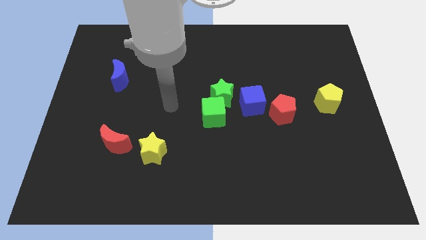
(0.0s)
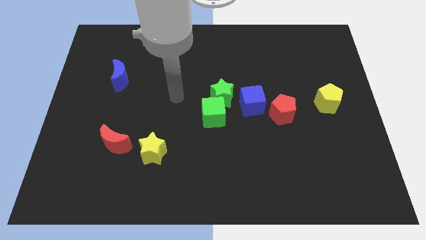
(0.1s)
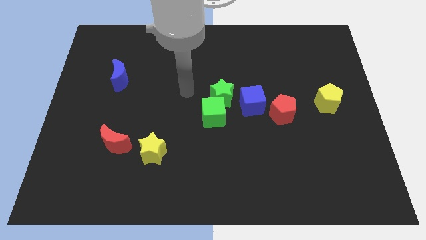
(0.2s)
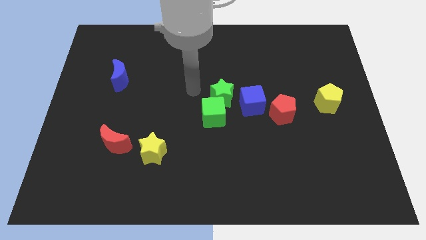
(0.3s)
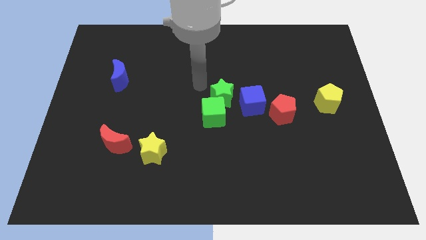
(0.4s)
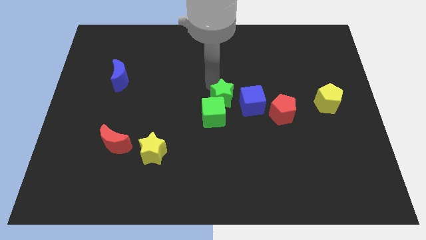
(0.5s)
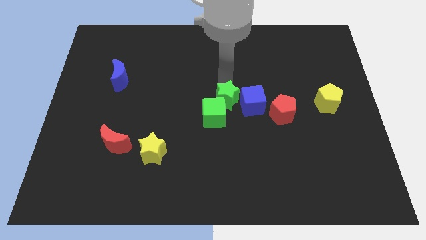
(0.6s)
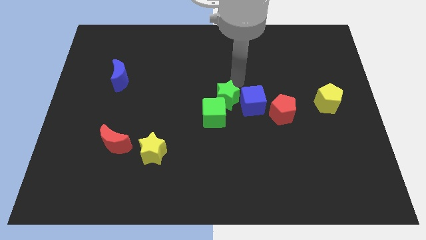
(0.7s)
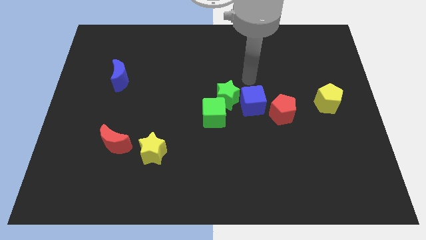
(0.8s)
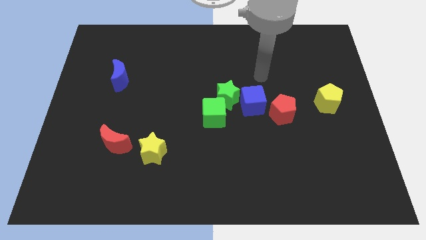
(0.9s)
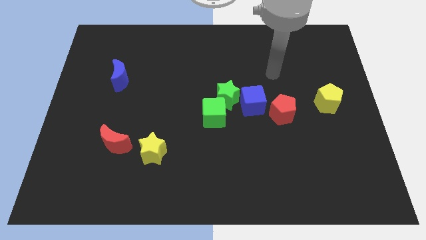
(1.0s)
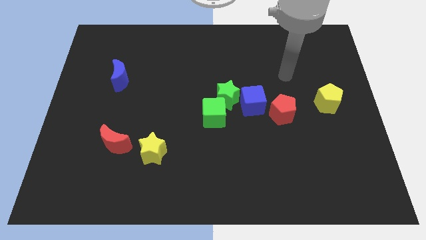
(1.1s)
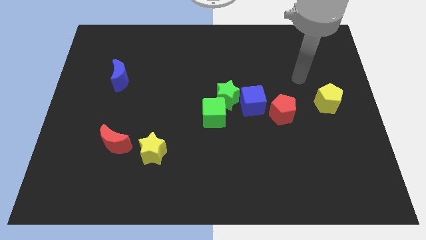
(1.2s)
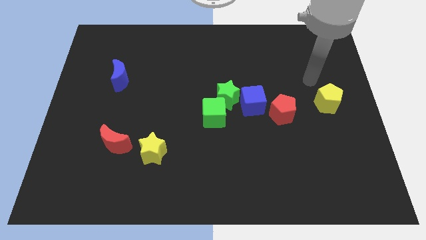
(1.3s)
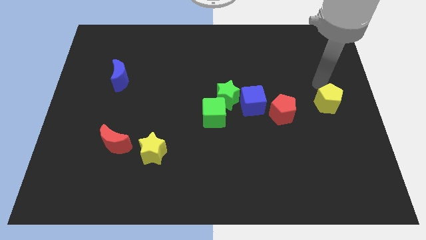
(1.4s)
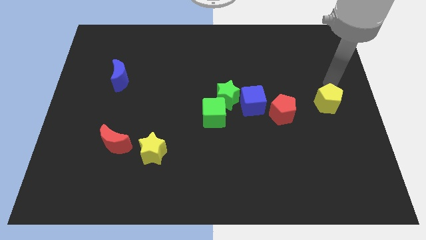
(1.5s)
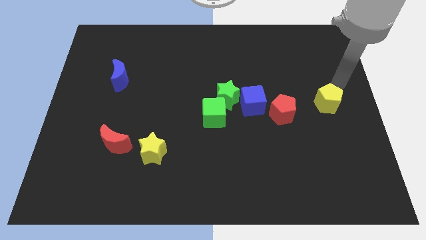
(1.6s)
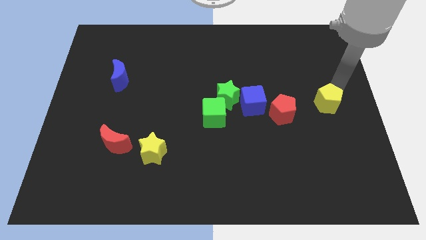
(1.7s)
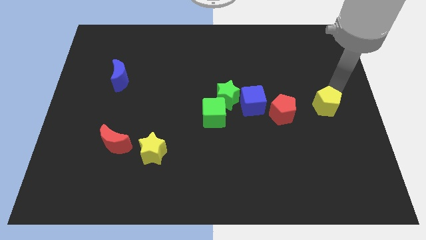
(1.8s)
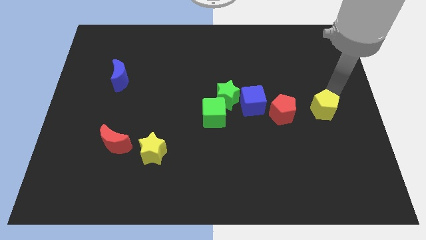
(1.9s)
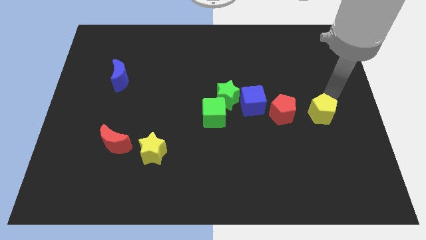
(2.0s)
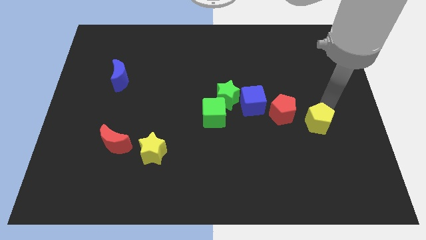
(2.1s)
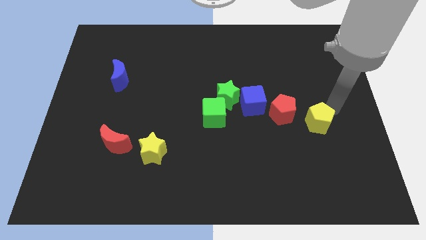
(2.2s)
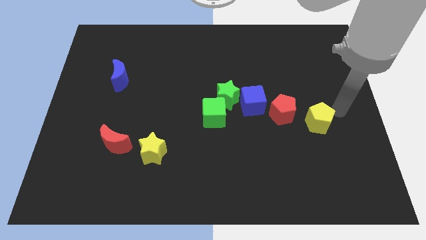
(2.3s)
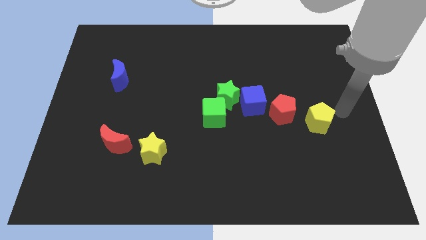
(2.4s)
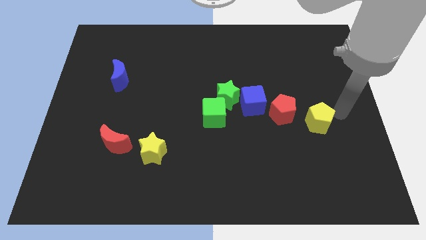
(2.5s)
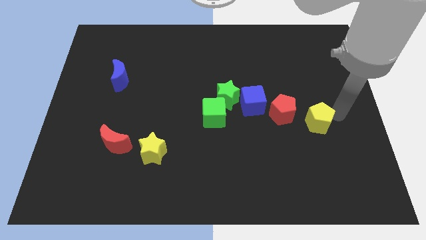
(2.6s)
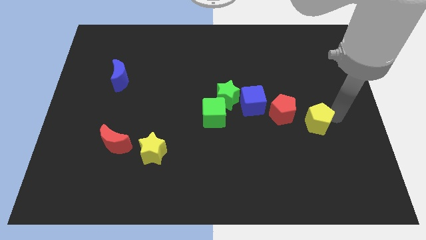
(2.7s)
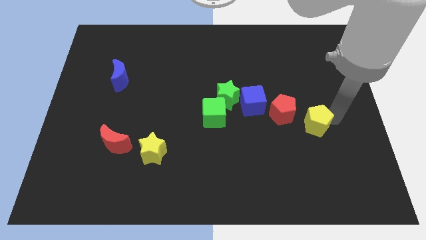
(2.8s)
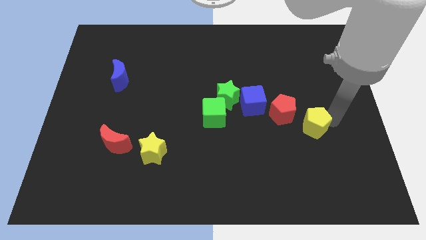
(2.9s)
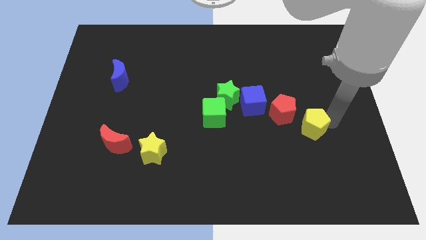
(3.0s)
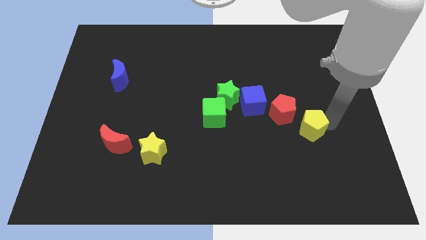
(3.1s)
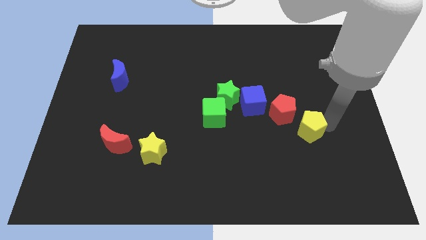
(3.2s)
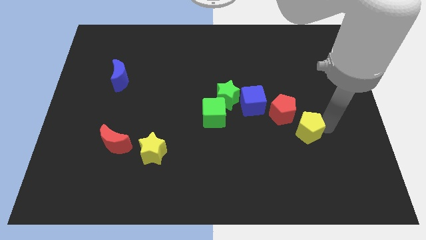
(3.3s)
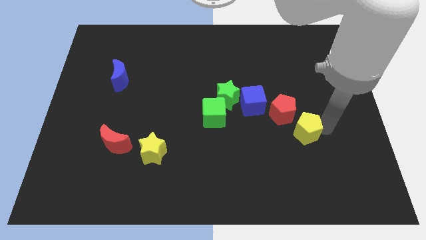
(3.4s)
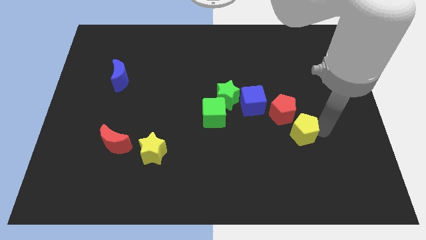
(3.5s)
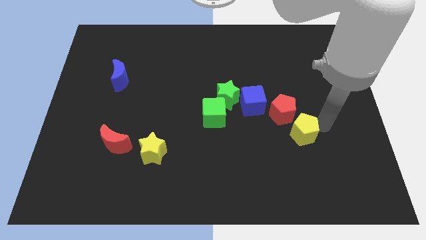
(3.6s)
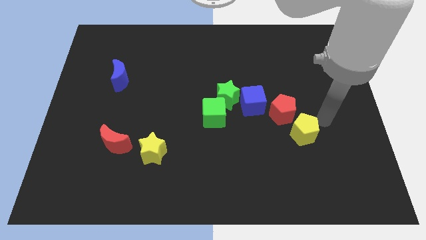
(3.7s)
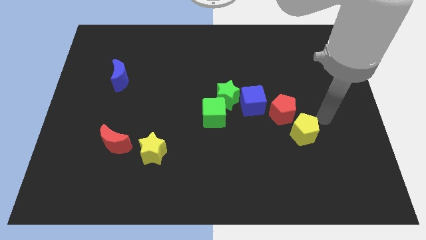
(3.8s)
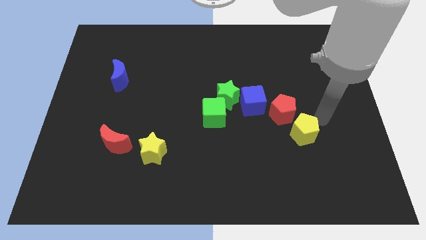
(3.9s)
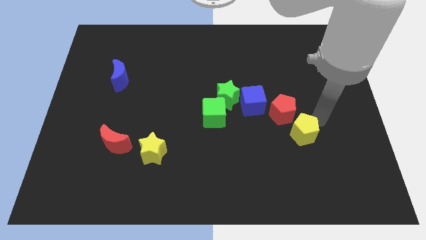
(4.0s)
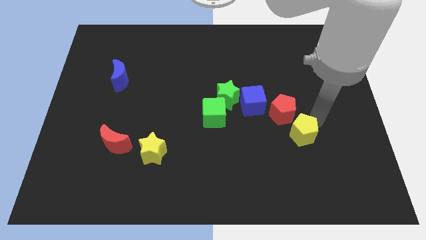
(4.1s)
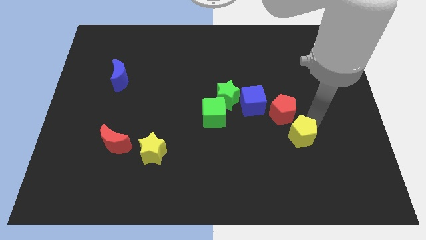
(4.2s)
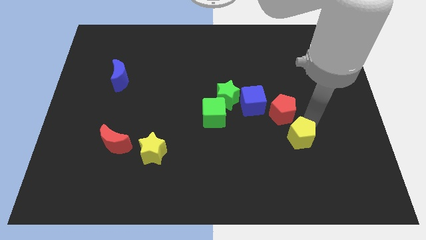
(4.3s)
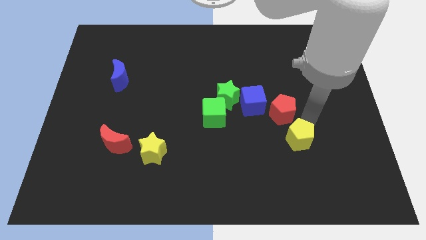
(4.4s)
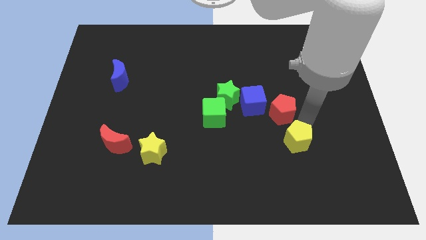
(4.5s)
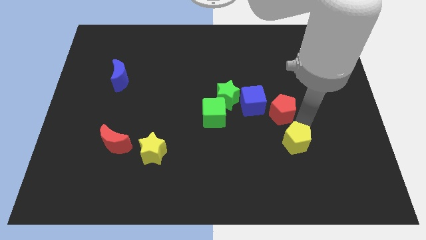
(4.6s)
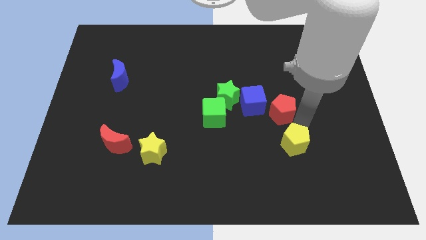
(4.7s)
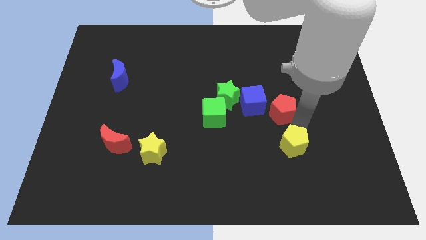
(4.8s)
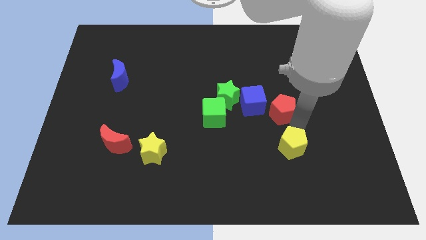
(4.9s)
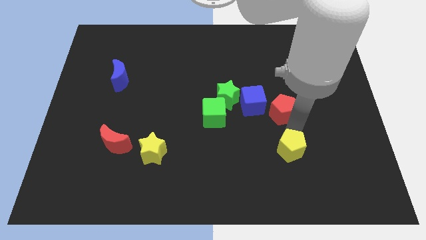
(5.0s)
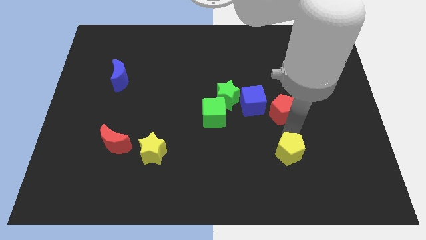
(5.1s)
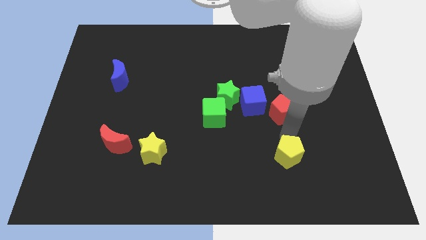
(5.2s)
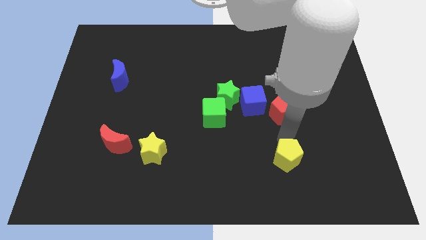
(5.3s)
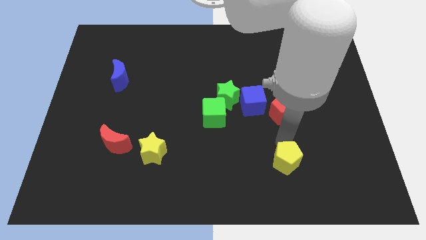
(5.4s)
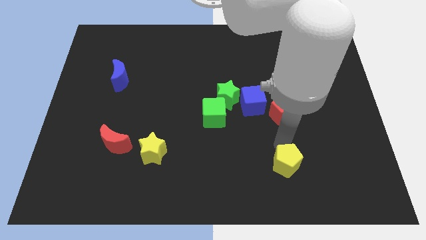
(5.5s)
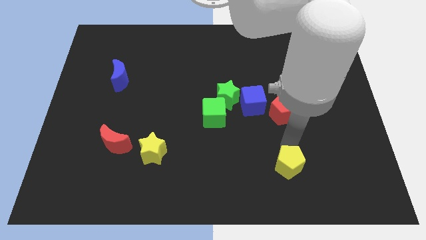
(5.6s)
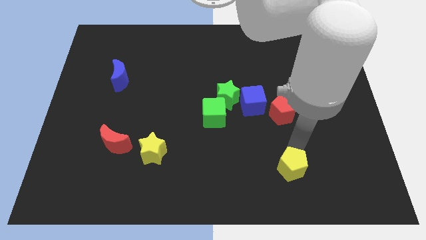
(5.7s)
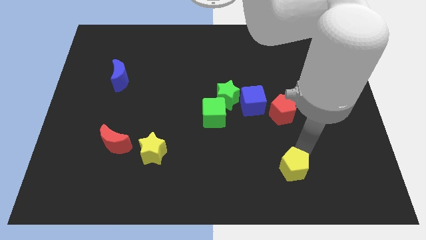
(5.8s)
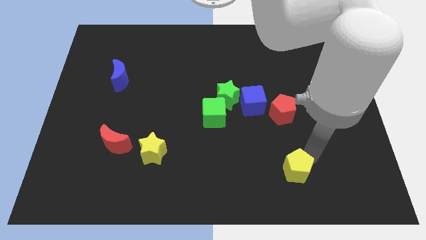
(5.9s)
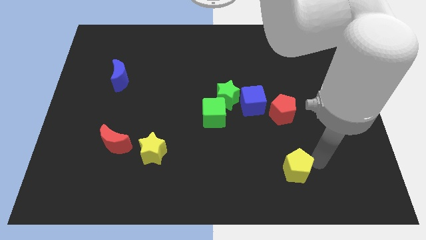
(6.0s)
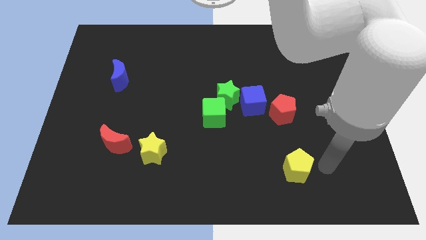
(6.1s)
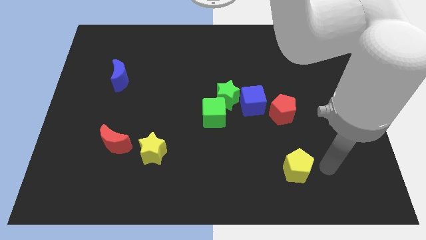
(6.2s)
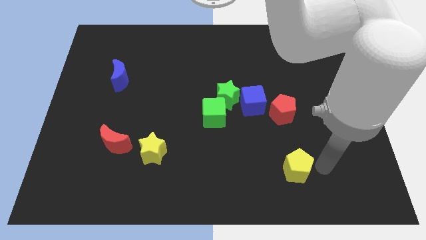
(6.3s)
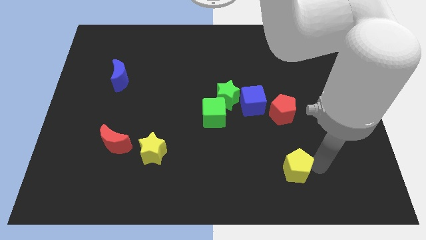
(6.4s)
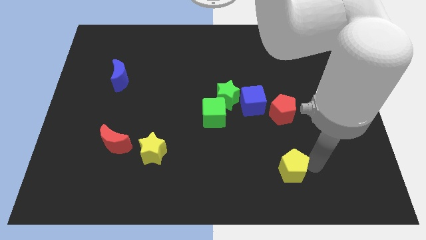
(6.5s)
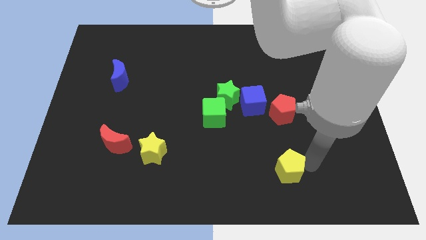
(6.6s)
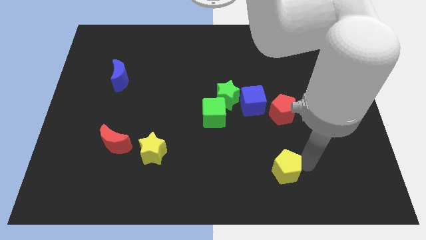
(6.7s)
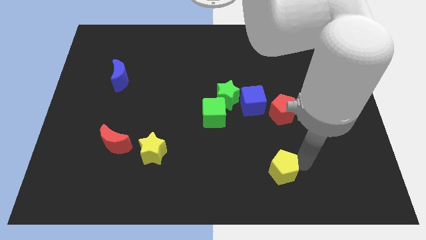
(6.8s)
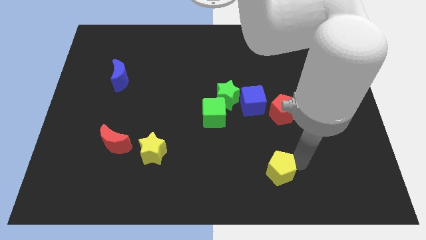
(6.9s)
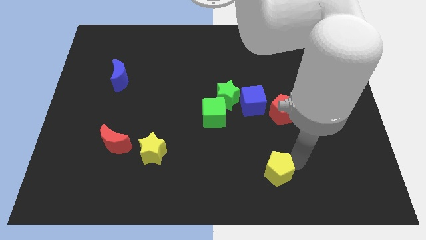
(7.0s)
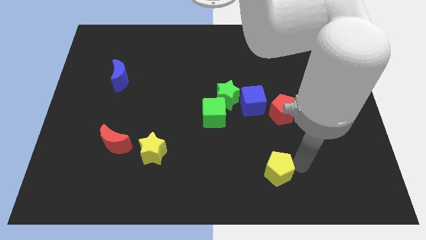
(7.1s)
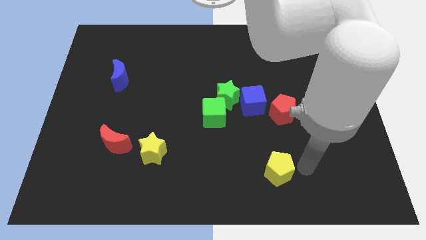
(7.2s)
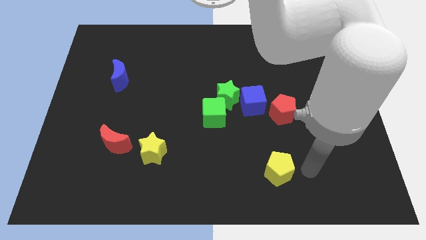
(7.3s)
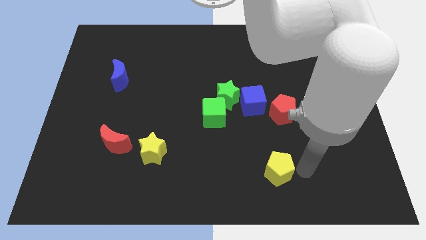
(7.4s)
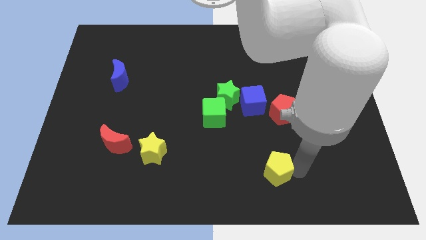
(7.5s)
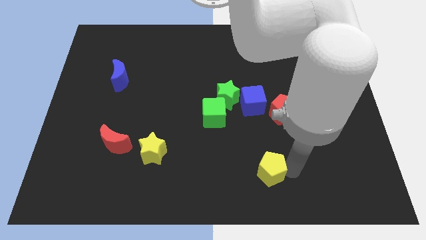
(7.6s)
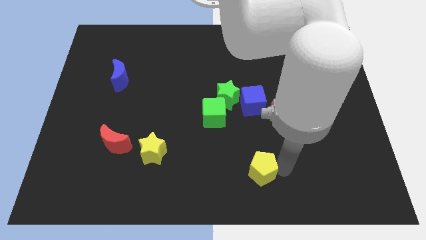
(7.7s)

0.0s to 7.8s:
slide the yellow pentagon to the bottom side
